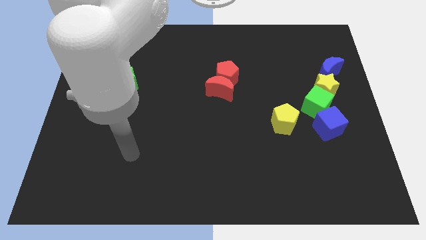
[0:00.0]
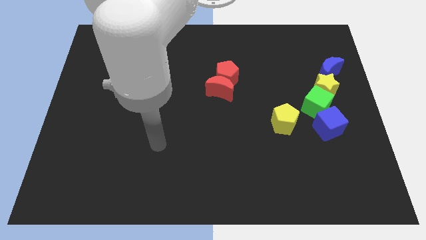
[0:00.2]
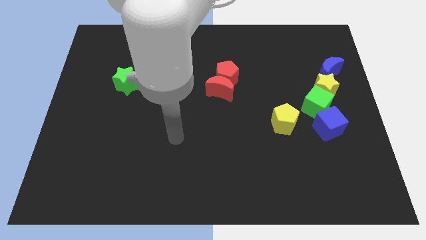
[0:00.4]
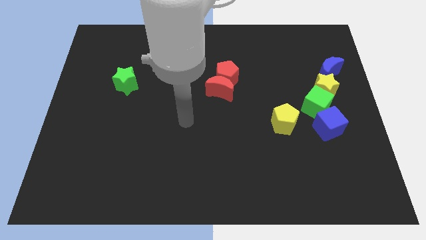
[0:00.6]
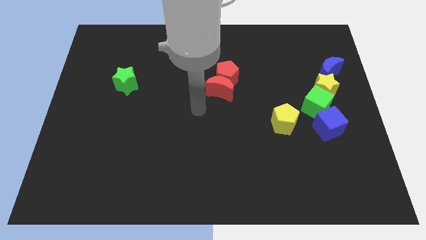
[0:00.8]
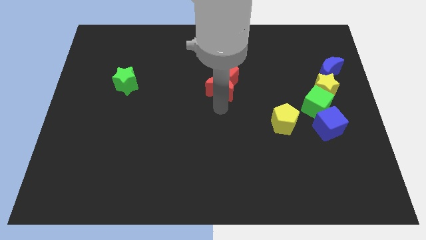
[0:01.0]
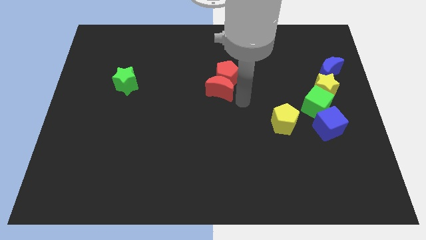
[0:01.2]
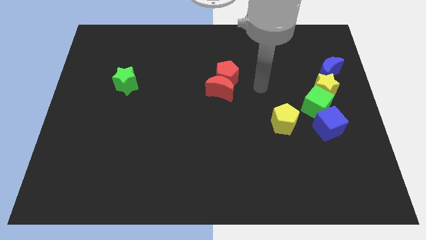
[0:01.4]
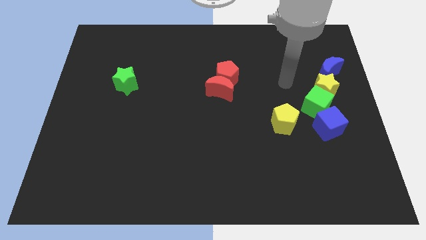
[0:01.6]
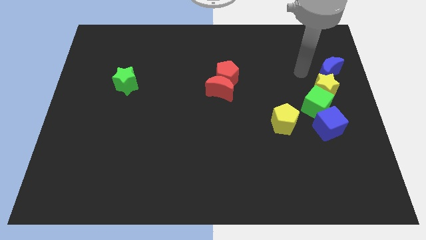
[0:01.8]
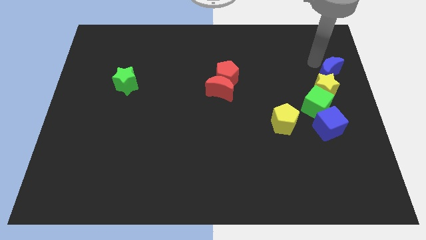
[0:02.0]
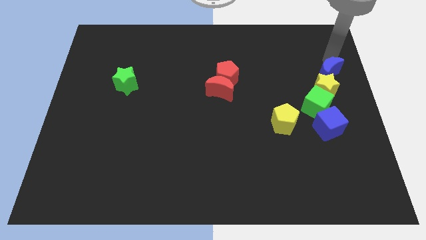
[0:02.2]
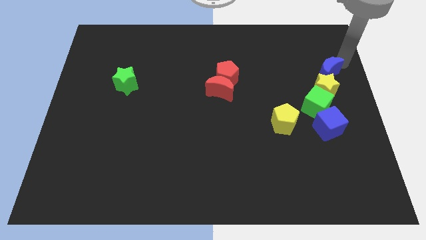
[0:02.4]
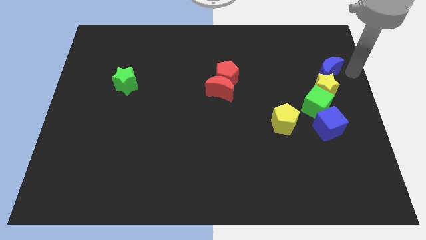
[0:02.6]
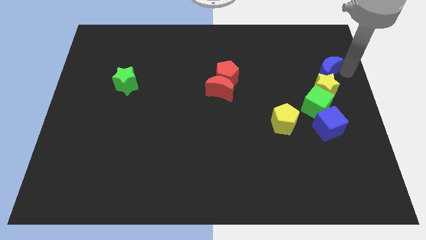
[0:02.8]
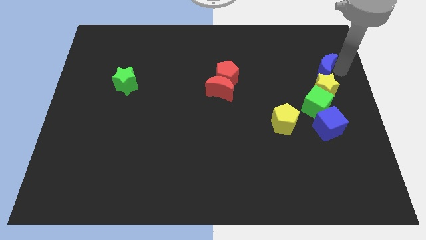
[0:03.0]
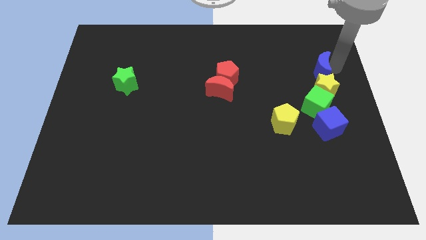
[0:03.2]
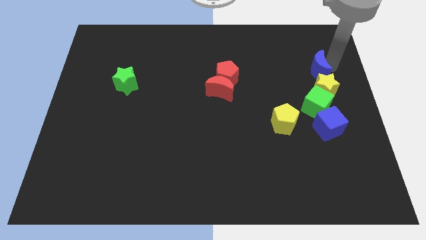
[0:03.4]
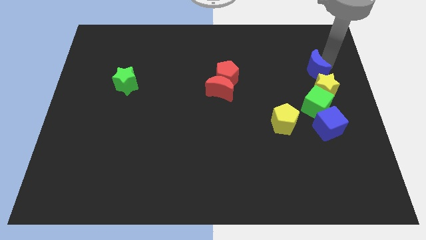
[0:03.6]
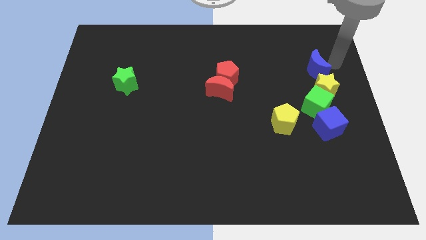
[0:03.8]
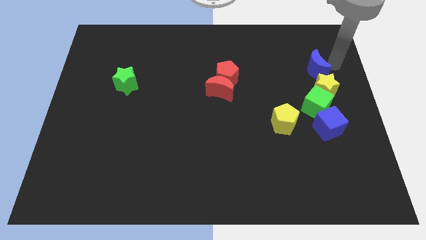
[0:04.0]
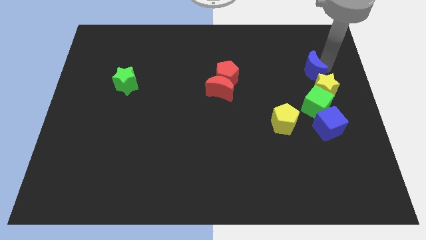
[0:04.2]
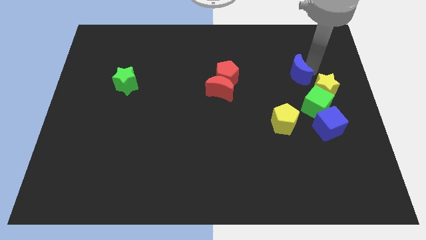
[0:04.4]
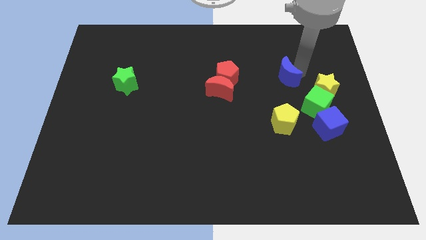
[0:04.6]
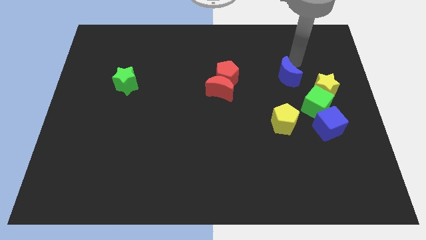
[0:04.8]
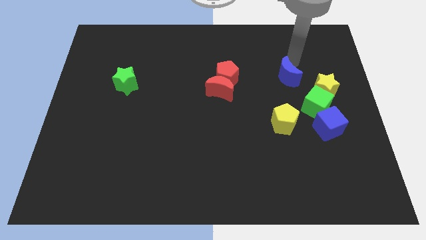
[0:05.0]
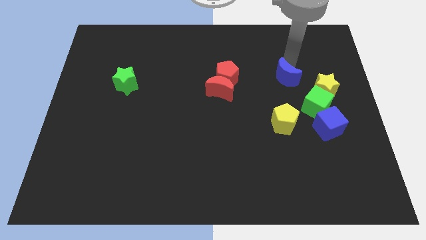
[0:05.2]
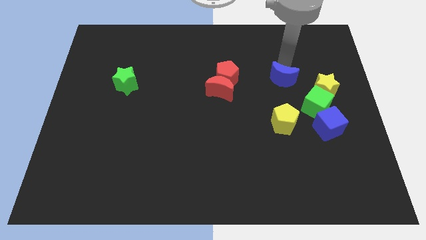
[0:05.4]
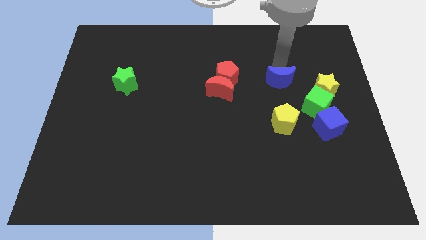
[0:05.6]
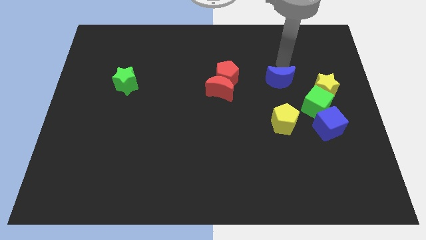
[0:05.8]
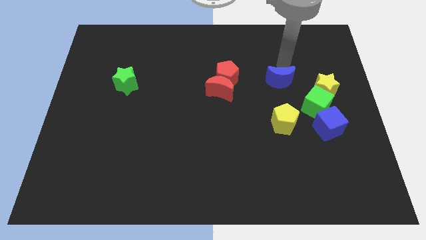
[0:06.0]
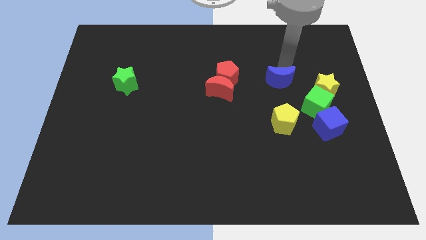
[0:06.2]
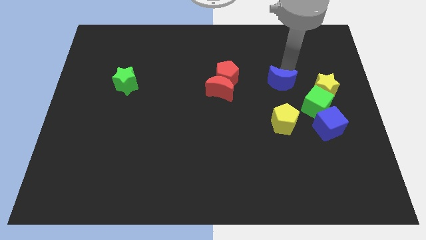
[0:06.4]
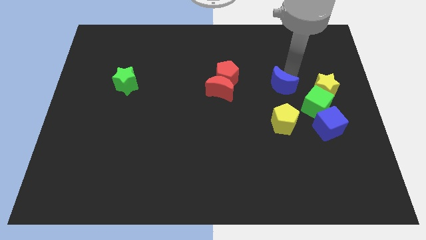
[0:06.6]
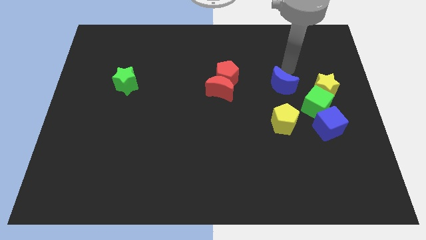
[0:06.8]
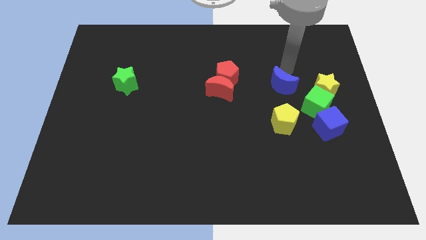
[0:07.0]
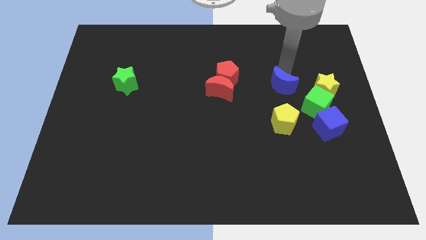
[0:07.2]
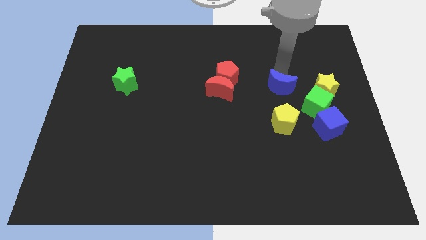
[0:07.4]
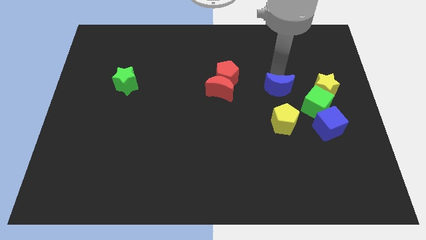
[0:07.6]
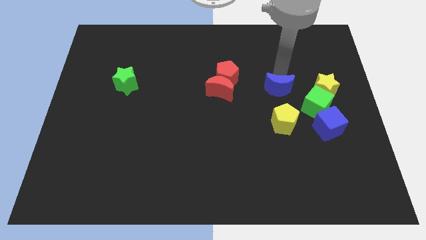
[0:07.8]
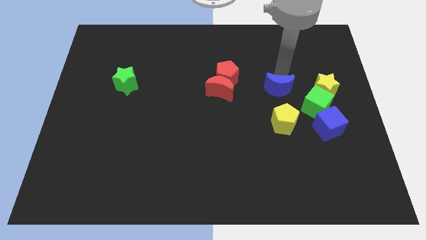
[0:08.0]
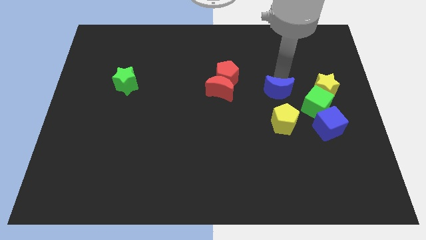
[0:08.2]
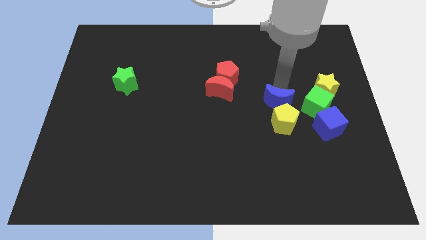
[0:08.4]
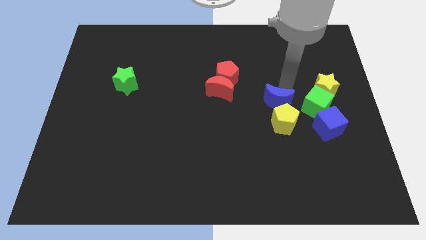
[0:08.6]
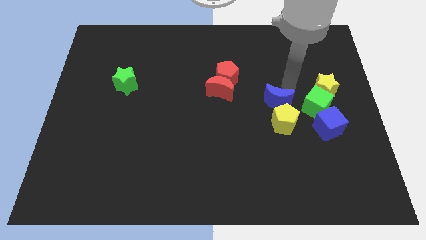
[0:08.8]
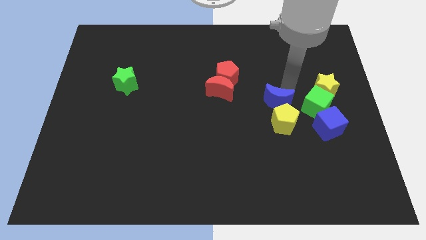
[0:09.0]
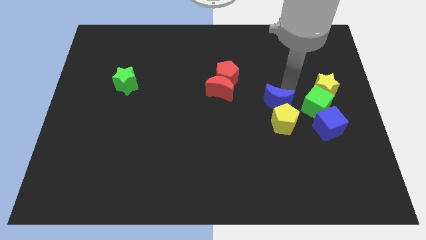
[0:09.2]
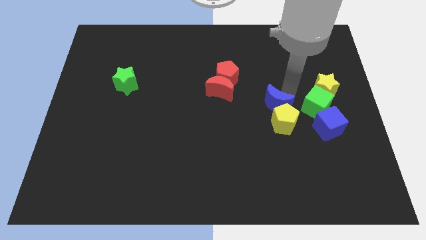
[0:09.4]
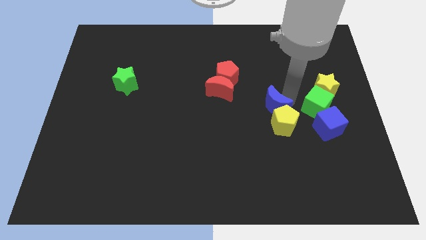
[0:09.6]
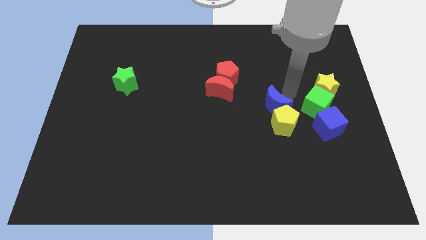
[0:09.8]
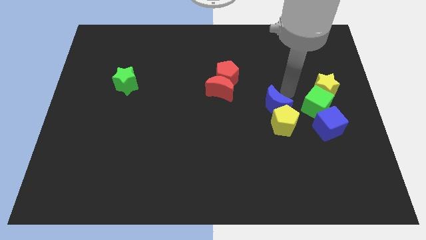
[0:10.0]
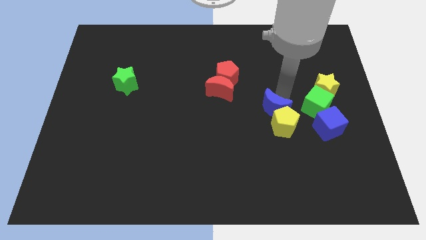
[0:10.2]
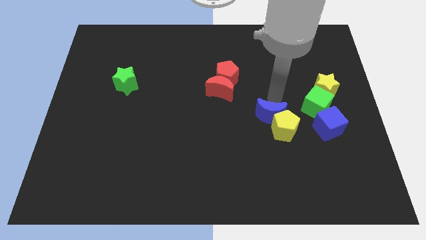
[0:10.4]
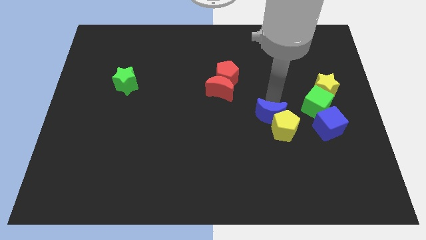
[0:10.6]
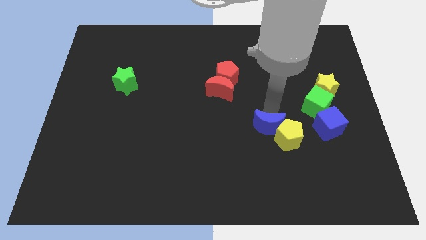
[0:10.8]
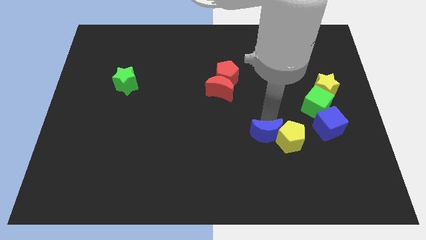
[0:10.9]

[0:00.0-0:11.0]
push the blue moon diagonally down and to the left of the yellow pentagon

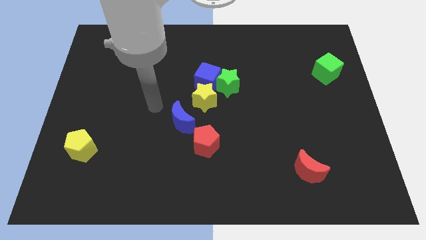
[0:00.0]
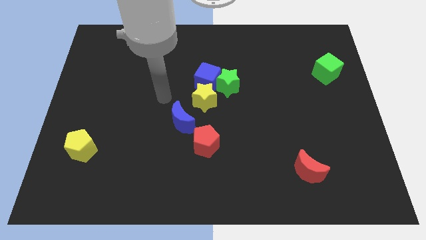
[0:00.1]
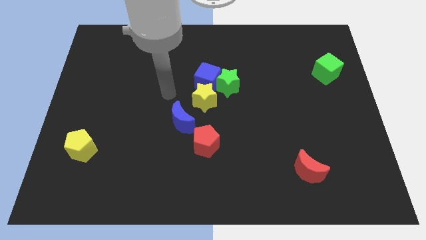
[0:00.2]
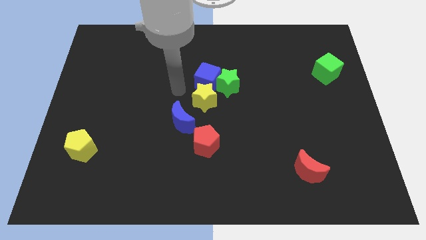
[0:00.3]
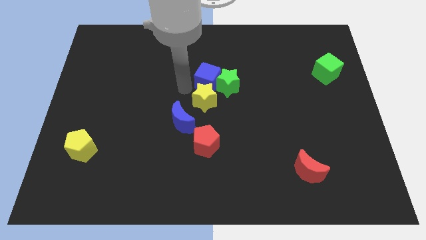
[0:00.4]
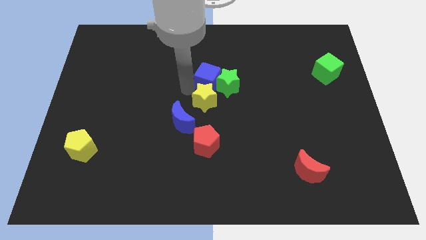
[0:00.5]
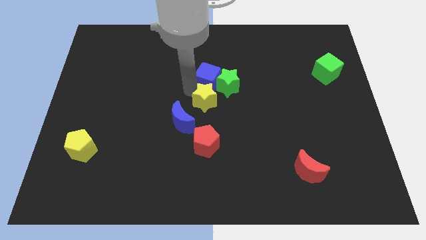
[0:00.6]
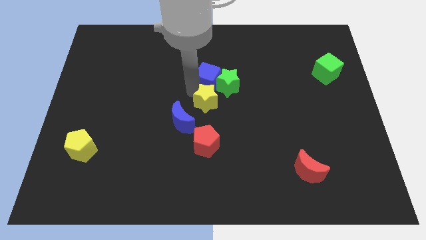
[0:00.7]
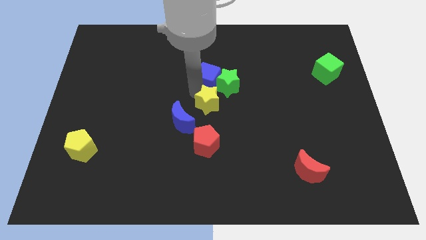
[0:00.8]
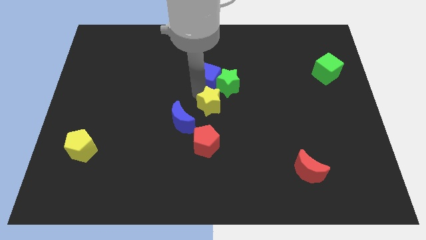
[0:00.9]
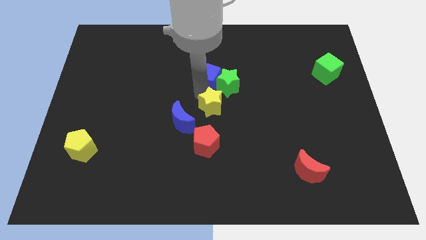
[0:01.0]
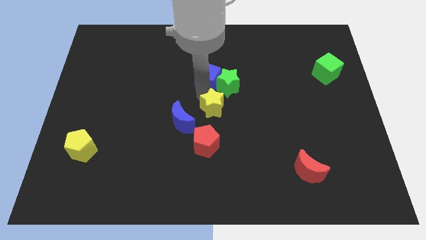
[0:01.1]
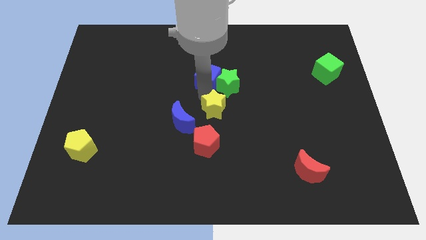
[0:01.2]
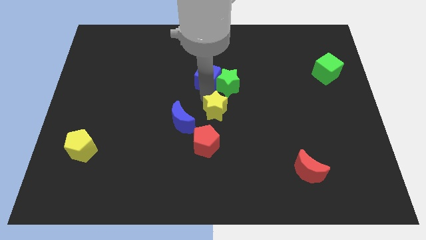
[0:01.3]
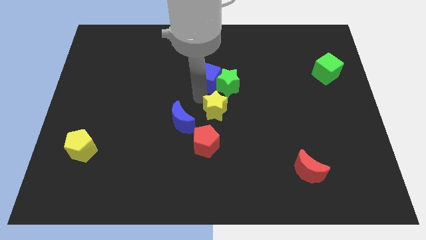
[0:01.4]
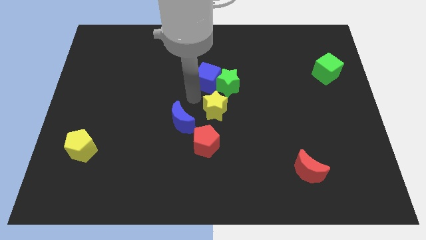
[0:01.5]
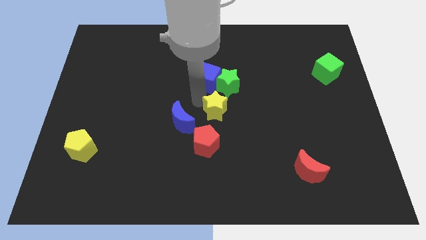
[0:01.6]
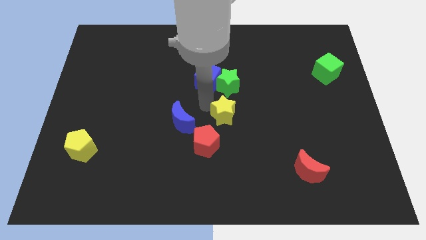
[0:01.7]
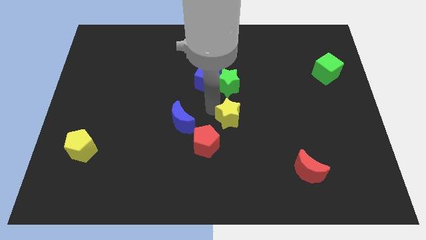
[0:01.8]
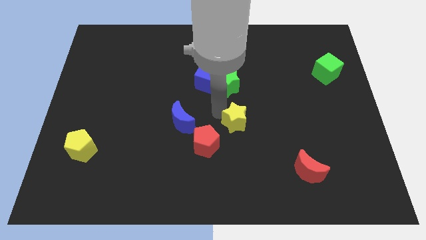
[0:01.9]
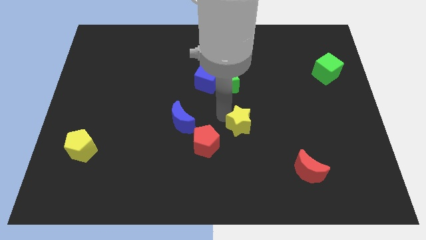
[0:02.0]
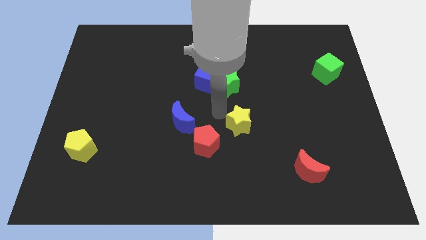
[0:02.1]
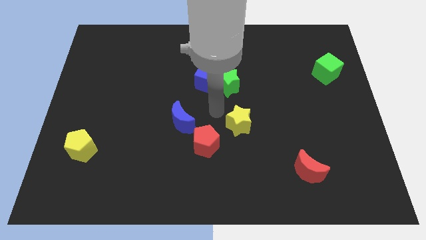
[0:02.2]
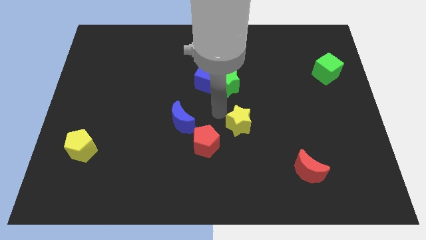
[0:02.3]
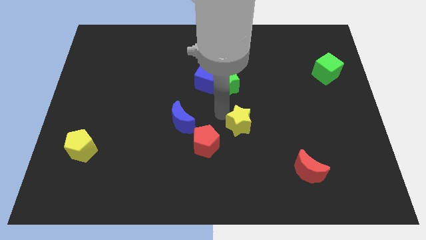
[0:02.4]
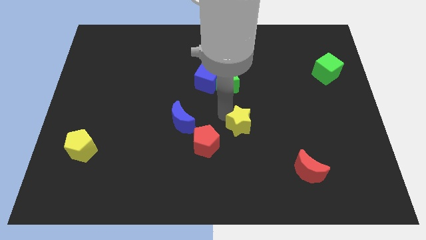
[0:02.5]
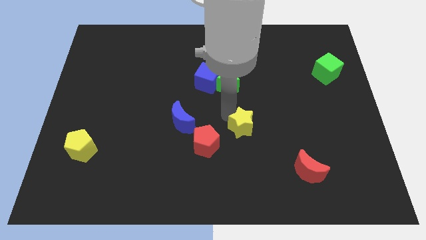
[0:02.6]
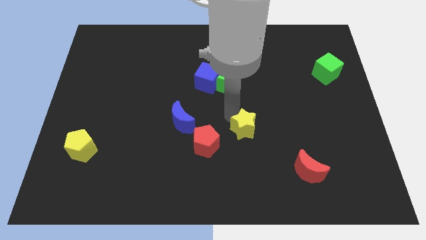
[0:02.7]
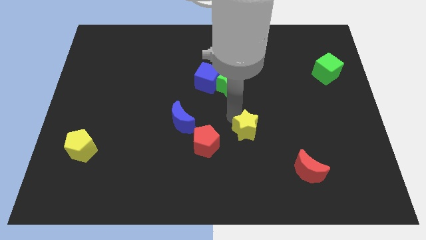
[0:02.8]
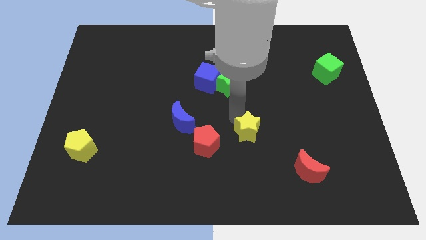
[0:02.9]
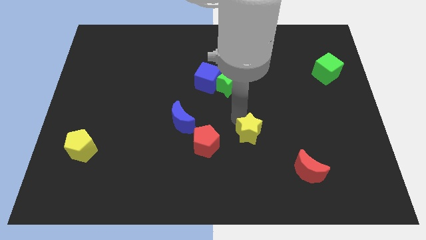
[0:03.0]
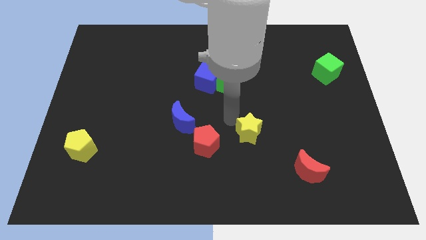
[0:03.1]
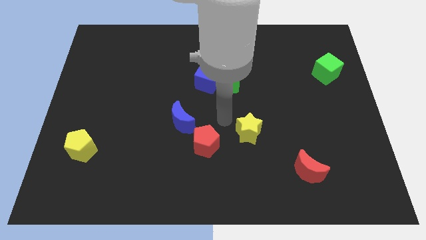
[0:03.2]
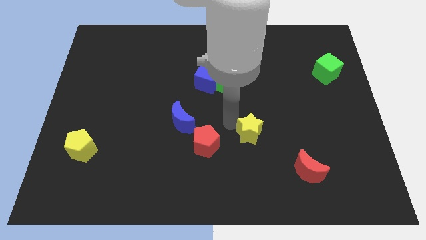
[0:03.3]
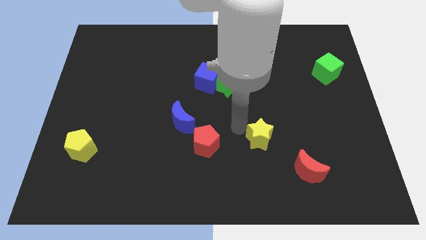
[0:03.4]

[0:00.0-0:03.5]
push the yellow star to the top left side of the red moon
